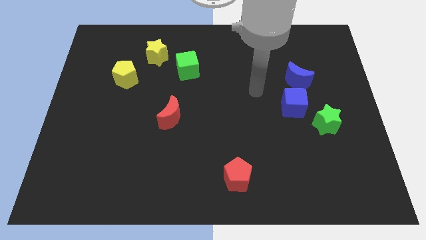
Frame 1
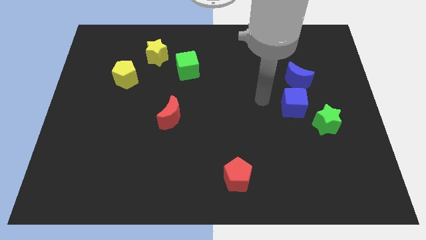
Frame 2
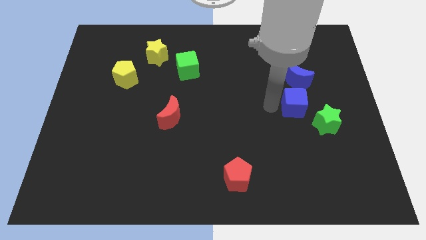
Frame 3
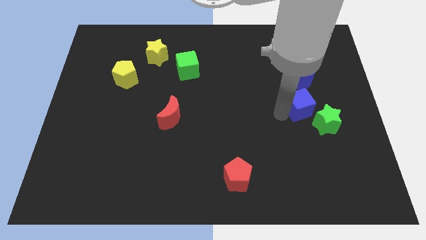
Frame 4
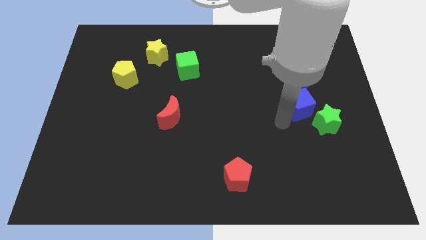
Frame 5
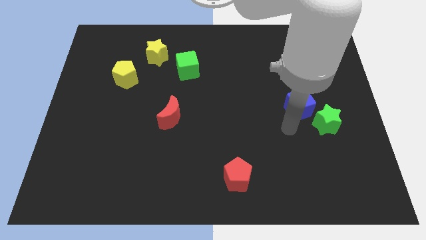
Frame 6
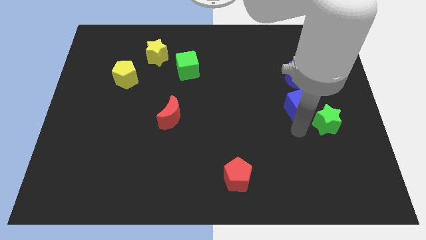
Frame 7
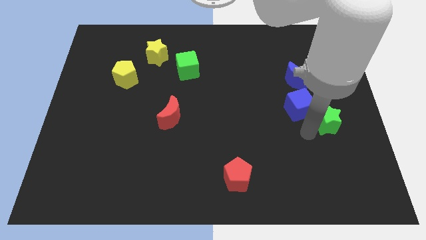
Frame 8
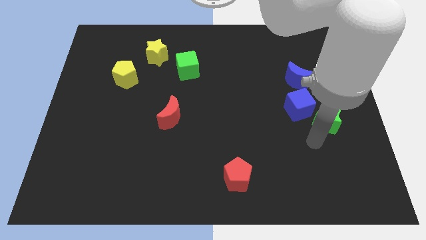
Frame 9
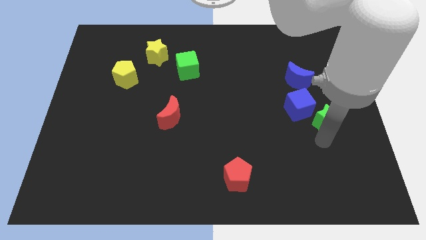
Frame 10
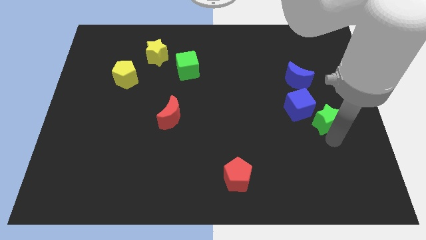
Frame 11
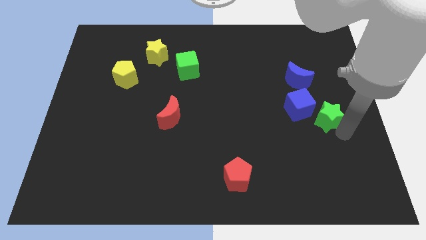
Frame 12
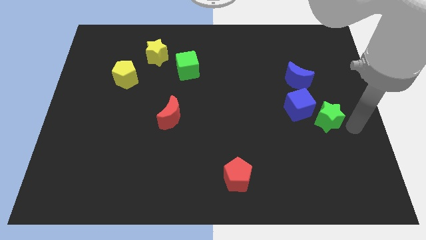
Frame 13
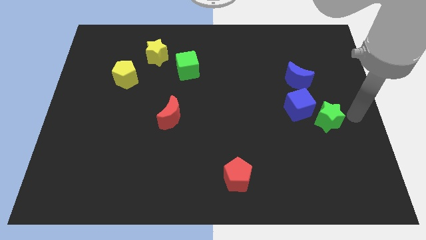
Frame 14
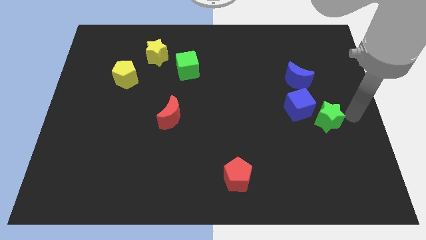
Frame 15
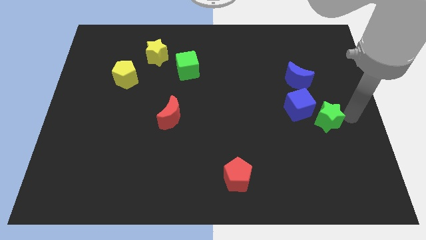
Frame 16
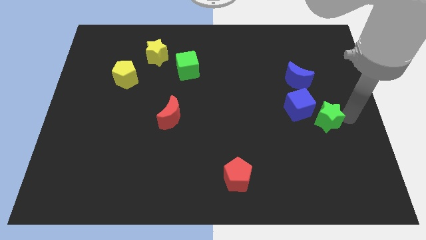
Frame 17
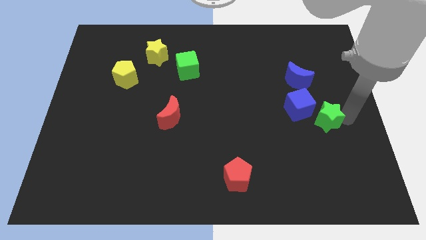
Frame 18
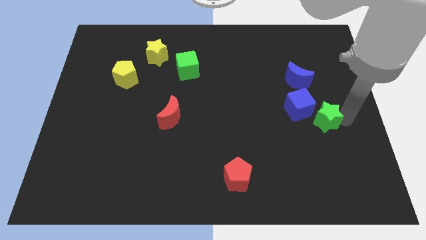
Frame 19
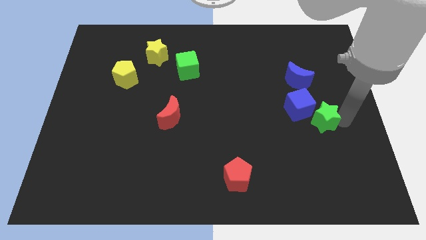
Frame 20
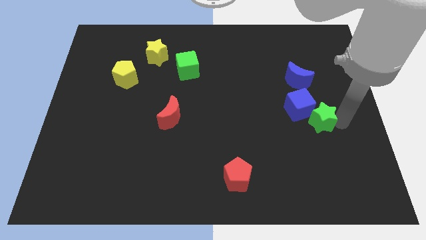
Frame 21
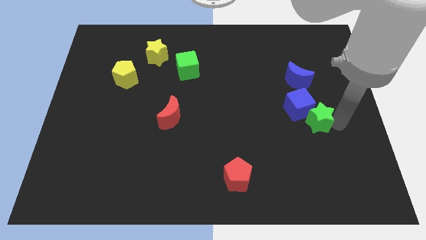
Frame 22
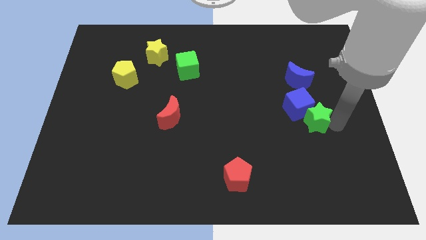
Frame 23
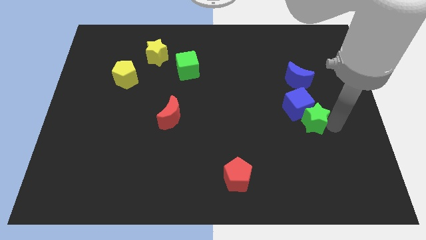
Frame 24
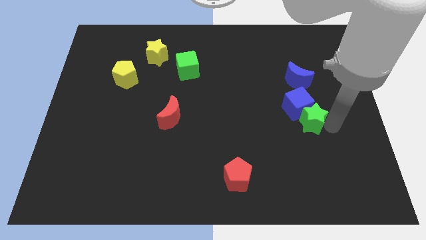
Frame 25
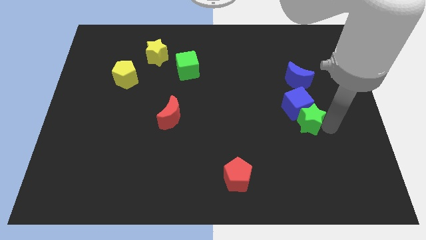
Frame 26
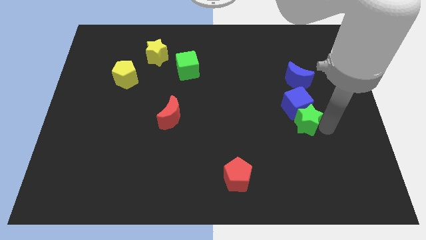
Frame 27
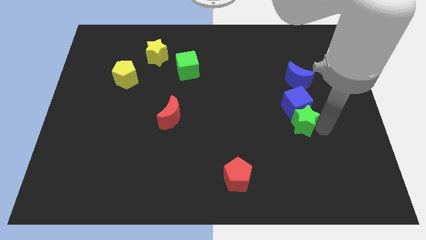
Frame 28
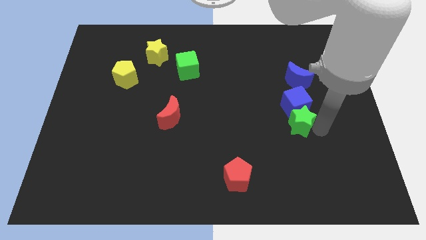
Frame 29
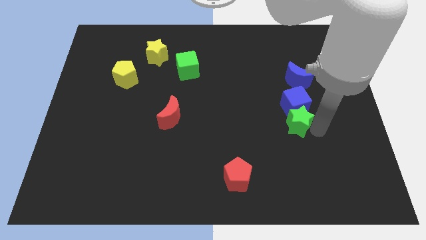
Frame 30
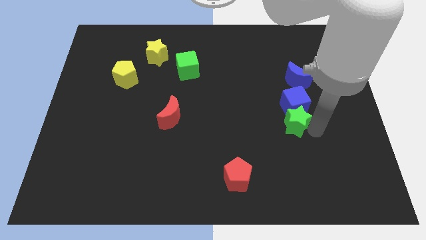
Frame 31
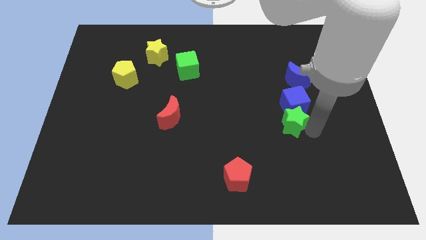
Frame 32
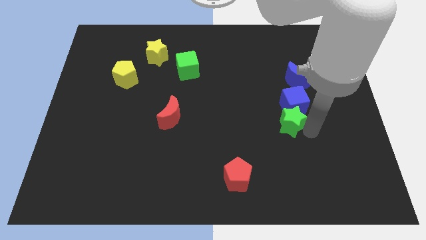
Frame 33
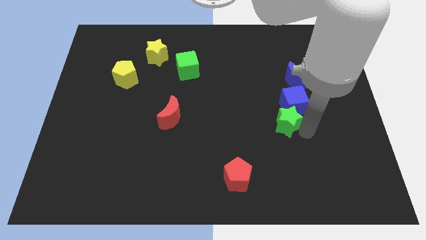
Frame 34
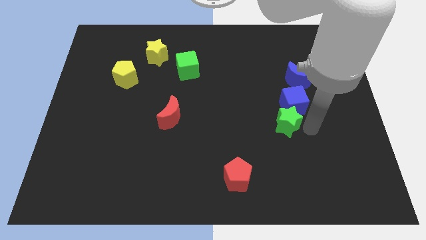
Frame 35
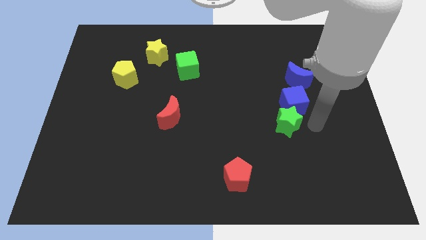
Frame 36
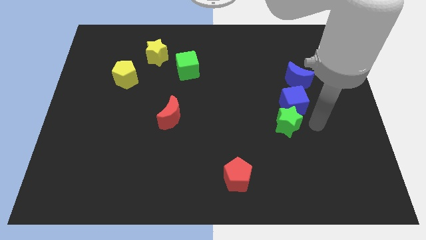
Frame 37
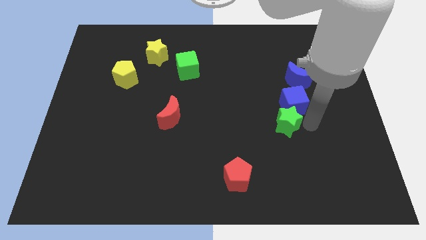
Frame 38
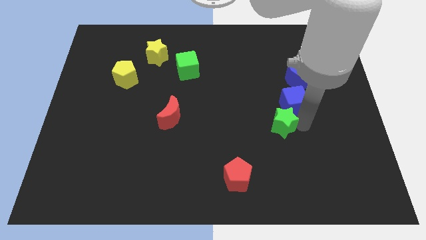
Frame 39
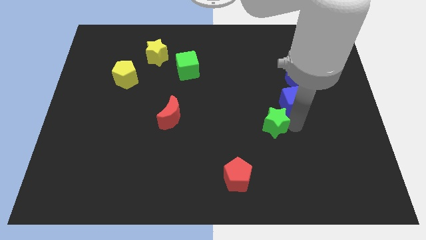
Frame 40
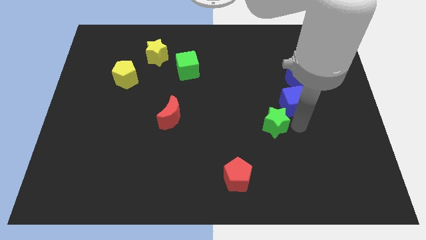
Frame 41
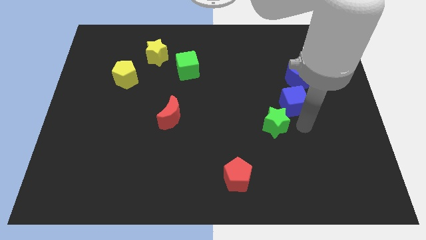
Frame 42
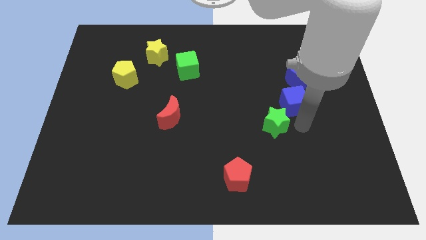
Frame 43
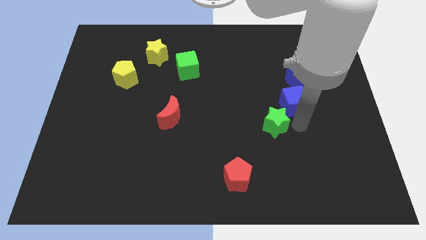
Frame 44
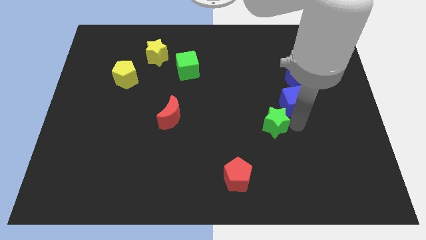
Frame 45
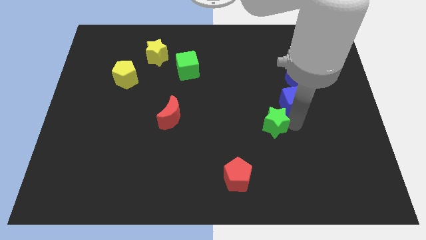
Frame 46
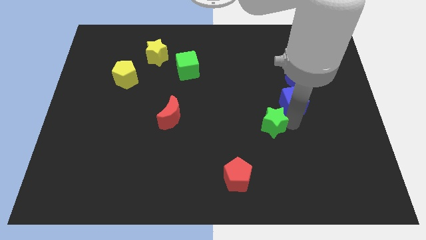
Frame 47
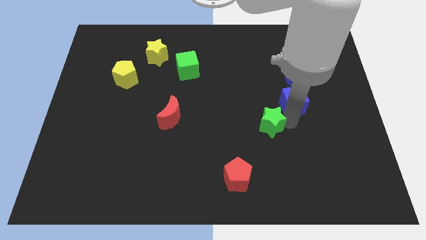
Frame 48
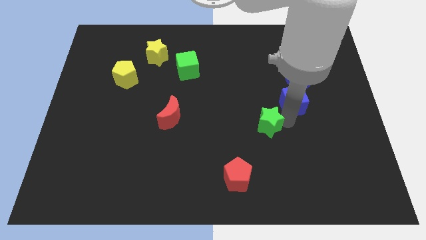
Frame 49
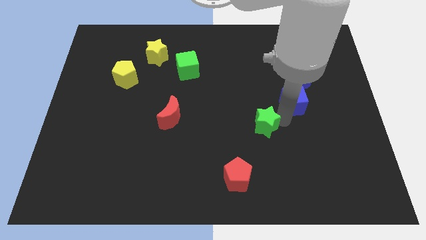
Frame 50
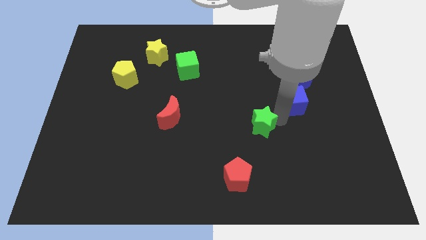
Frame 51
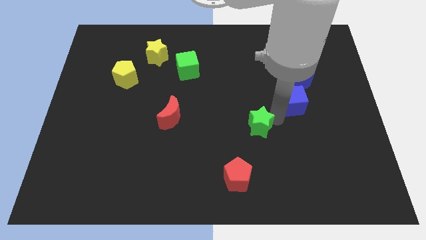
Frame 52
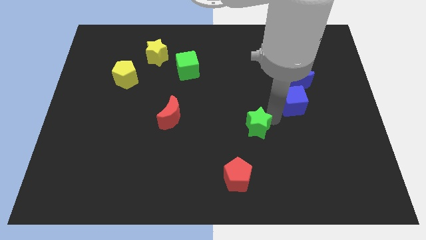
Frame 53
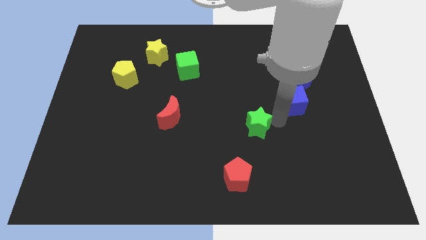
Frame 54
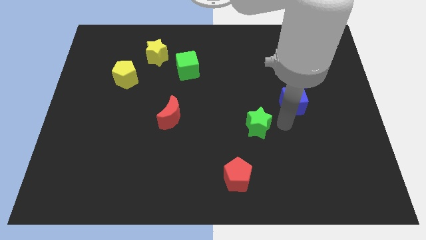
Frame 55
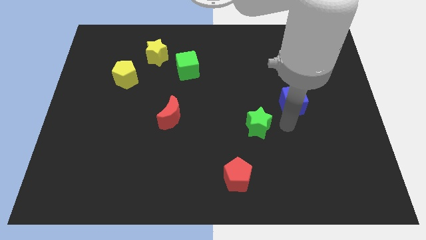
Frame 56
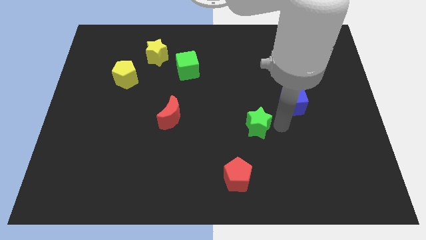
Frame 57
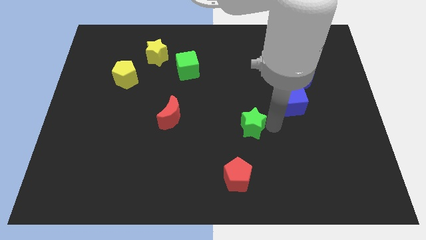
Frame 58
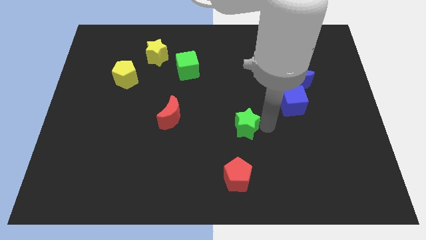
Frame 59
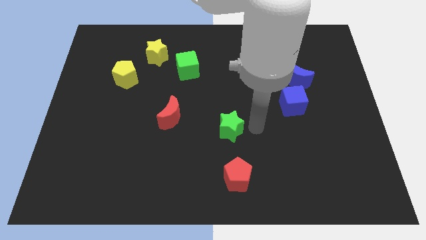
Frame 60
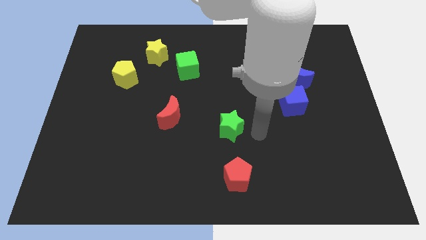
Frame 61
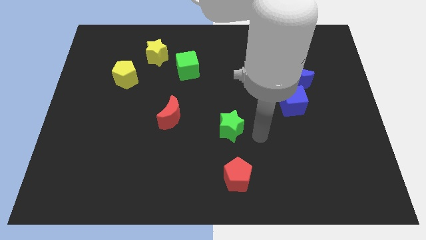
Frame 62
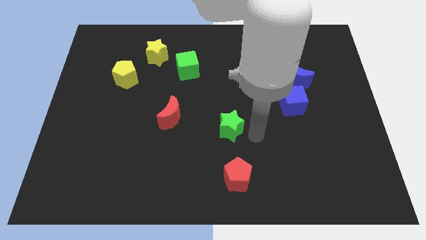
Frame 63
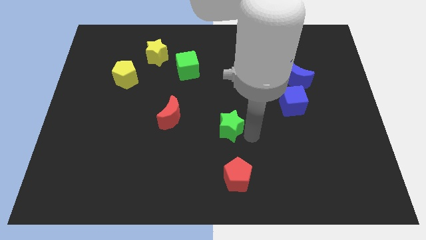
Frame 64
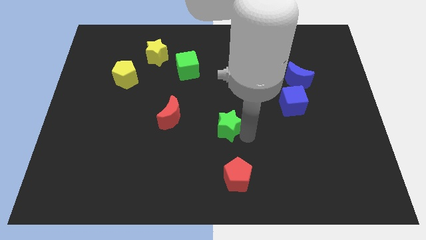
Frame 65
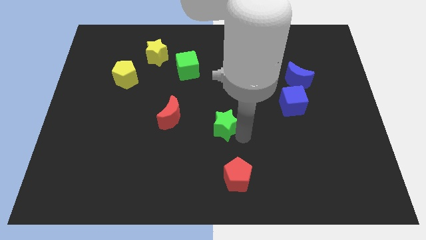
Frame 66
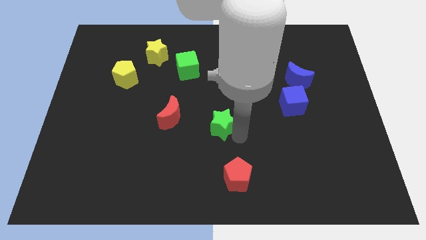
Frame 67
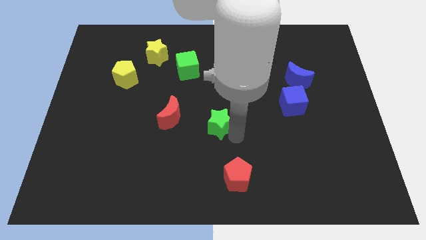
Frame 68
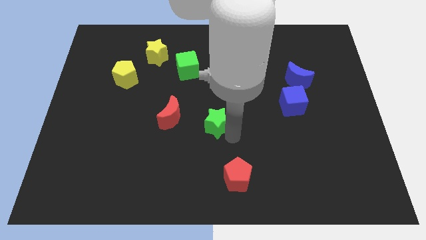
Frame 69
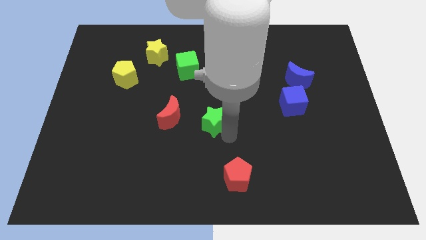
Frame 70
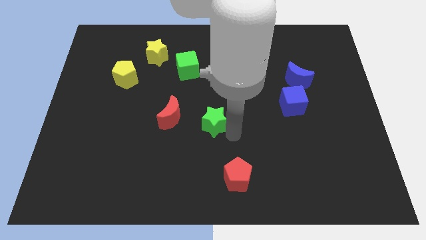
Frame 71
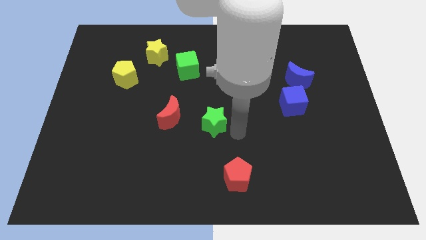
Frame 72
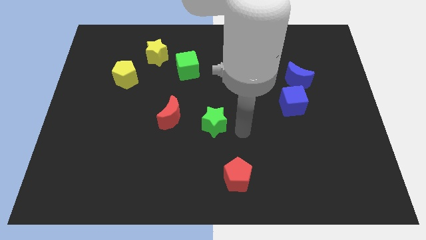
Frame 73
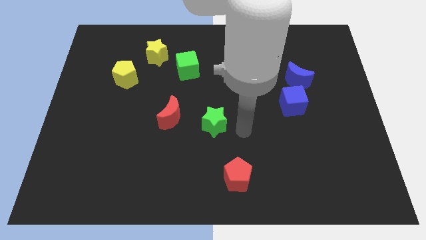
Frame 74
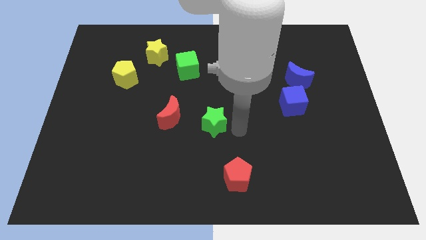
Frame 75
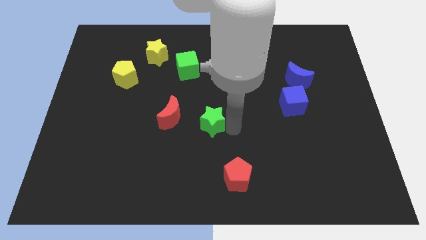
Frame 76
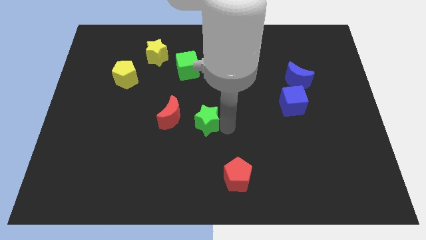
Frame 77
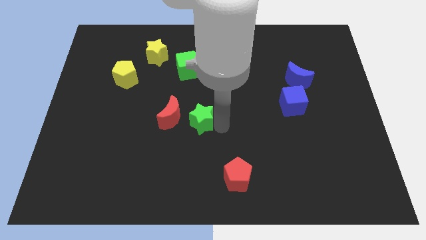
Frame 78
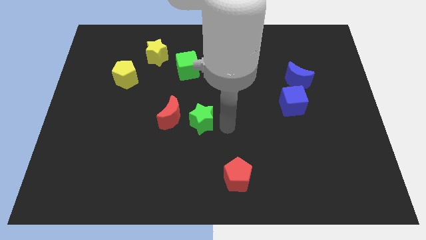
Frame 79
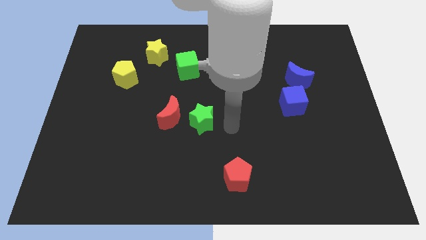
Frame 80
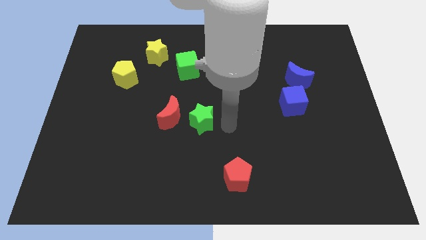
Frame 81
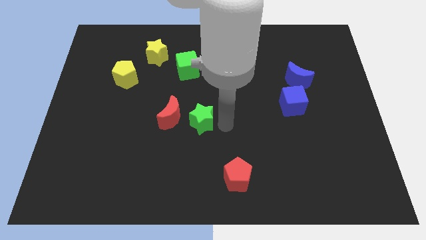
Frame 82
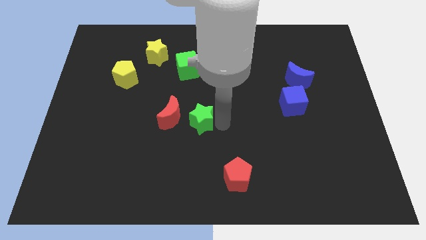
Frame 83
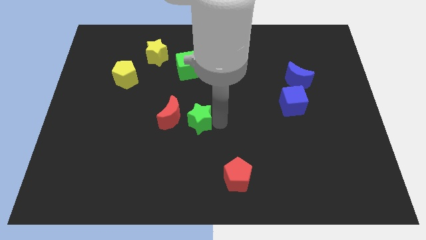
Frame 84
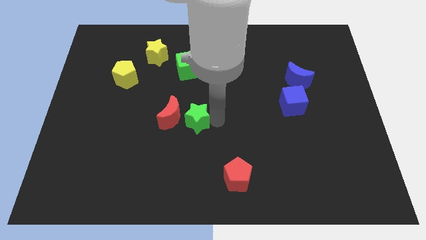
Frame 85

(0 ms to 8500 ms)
push the green star towards the red moon
